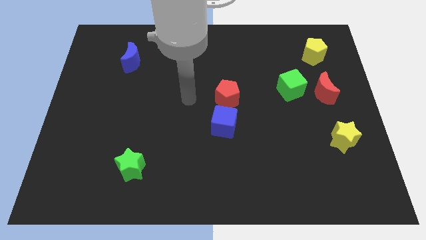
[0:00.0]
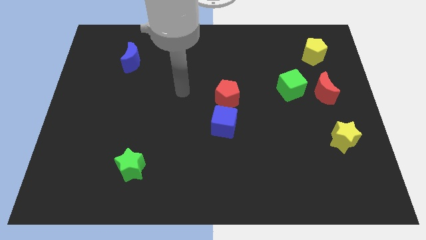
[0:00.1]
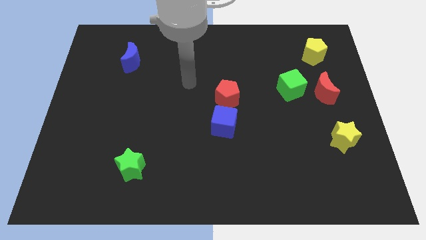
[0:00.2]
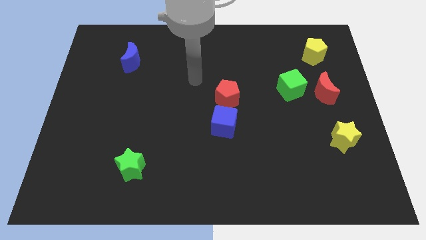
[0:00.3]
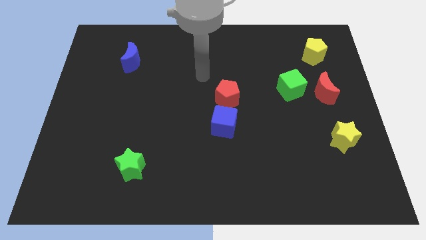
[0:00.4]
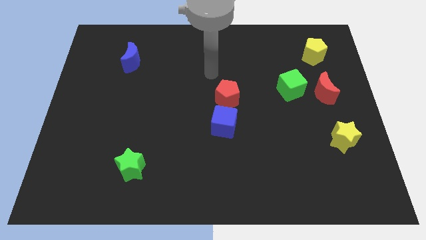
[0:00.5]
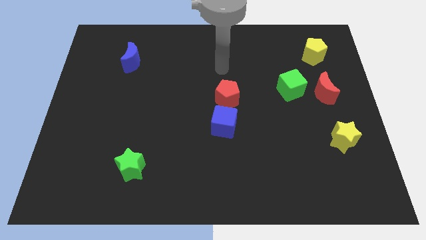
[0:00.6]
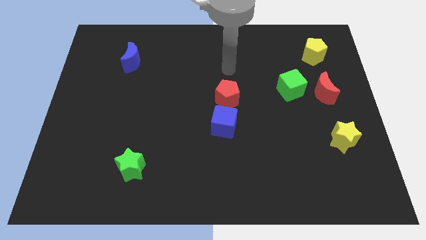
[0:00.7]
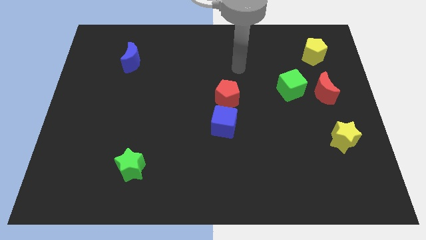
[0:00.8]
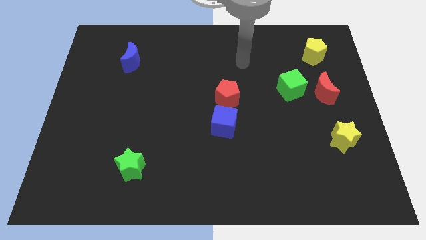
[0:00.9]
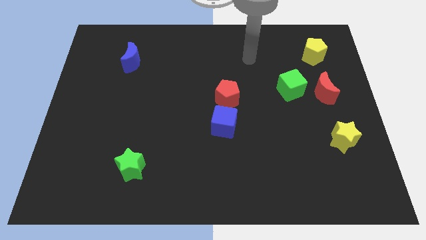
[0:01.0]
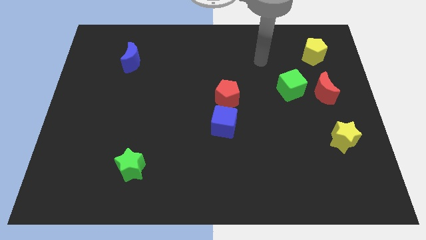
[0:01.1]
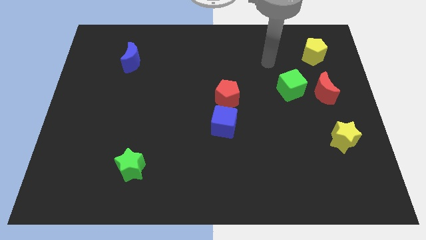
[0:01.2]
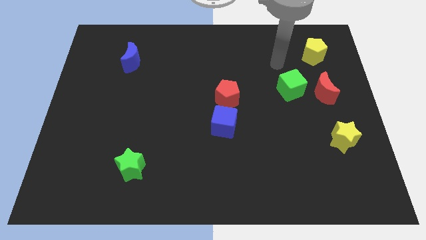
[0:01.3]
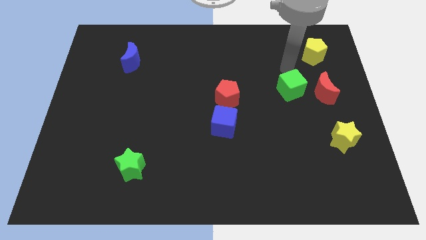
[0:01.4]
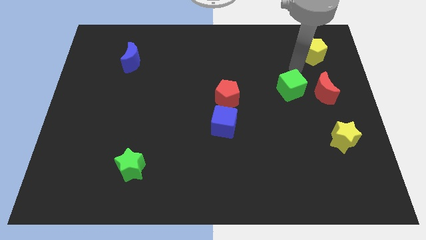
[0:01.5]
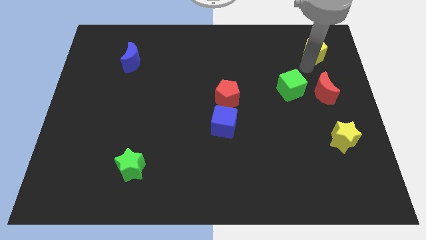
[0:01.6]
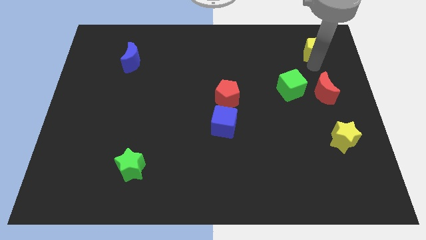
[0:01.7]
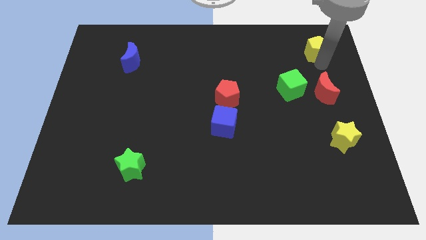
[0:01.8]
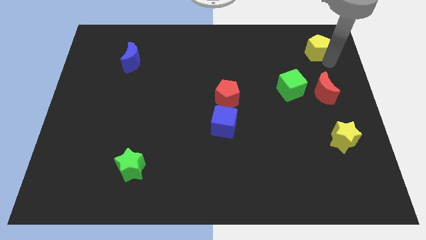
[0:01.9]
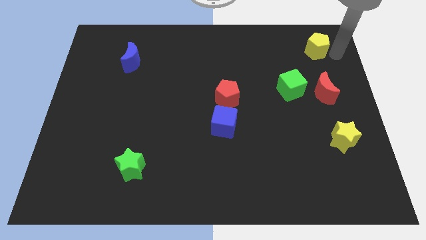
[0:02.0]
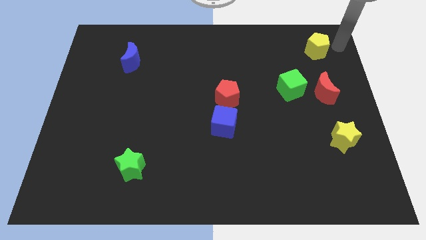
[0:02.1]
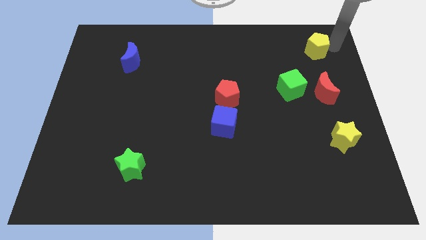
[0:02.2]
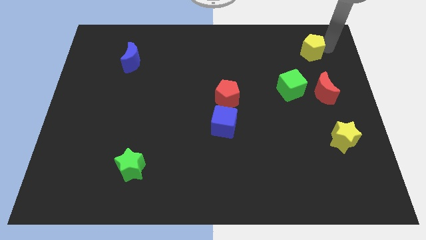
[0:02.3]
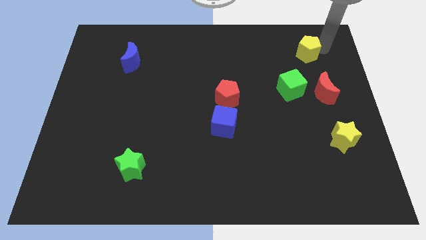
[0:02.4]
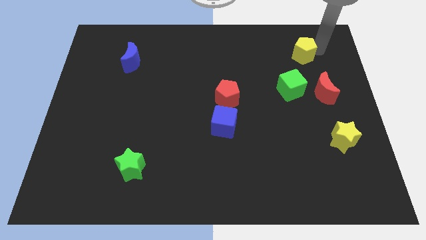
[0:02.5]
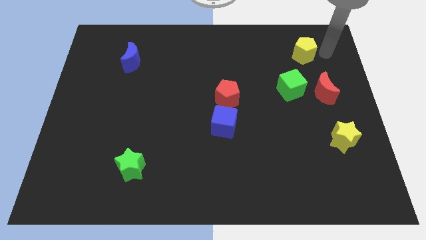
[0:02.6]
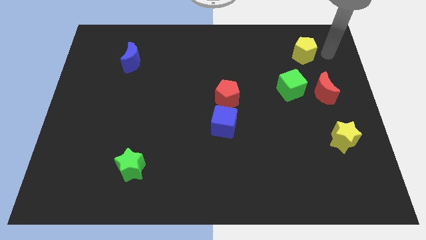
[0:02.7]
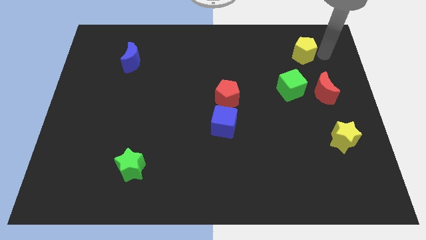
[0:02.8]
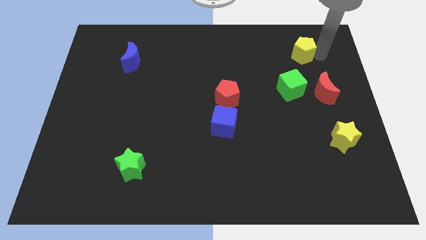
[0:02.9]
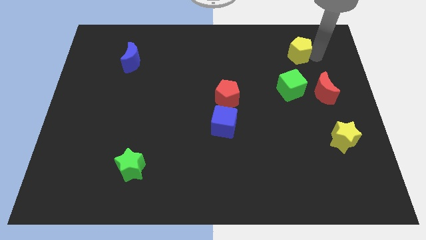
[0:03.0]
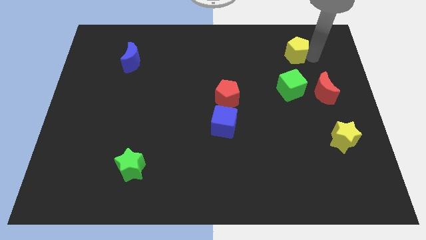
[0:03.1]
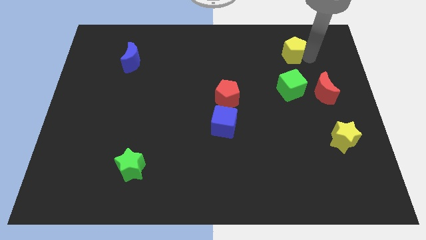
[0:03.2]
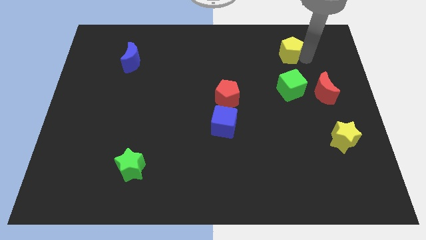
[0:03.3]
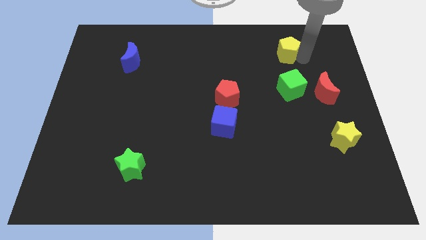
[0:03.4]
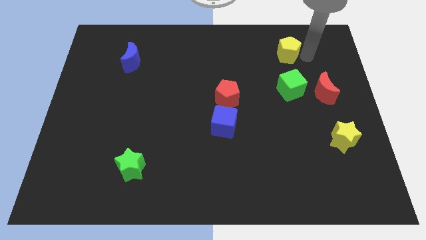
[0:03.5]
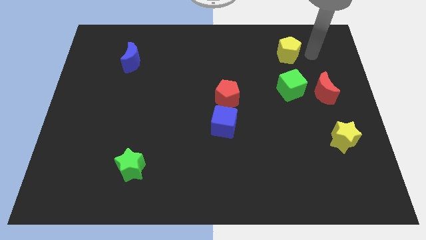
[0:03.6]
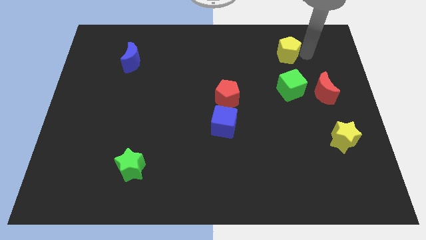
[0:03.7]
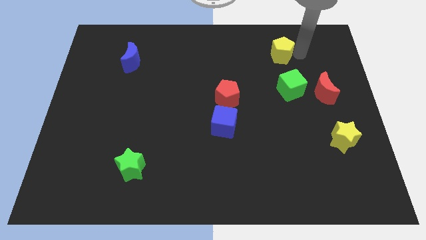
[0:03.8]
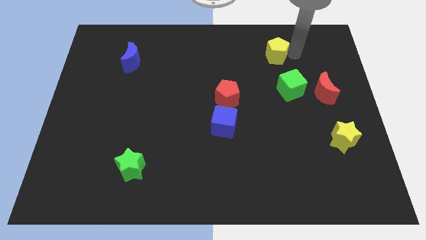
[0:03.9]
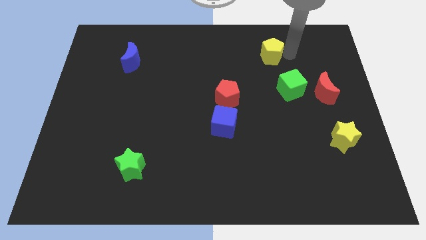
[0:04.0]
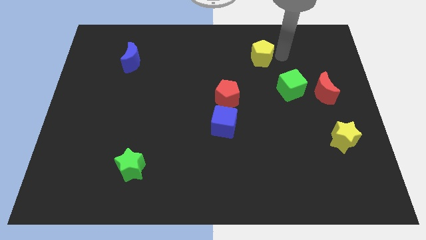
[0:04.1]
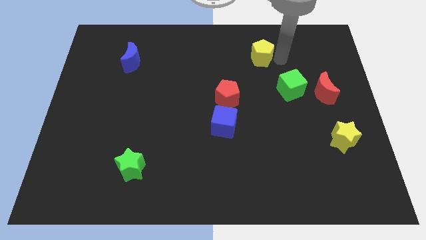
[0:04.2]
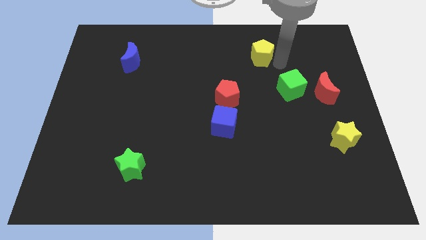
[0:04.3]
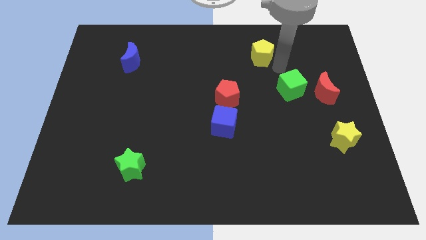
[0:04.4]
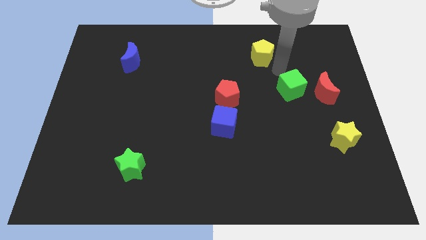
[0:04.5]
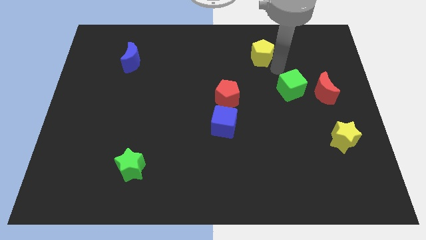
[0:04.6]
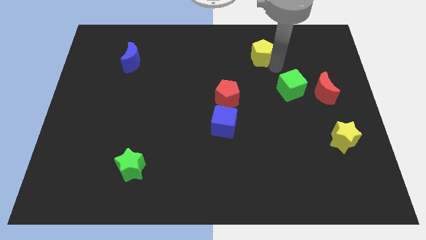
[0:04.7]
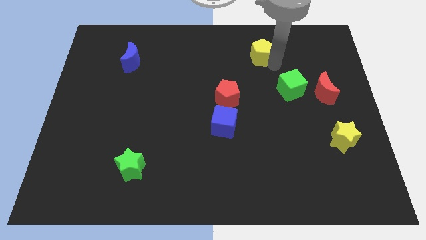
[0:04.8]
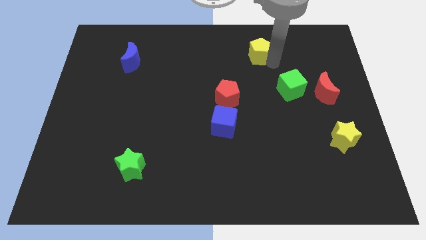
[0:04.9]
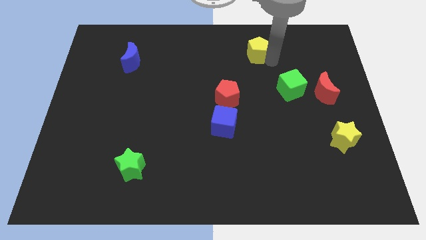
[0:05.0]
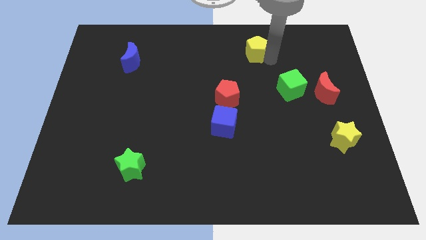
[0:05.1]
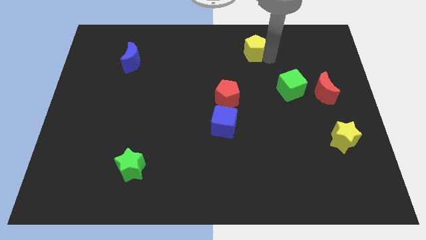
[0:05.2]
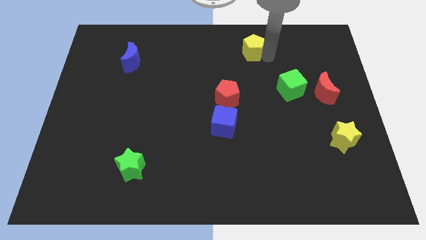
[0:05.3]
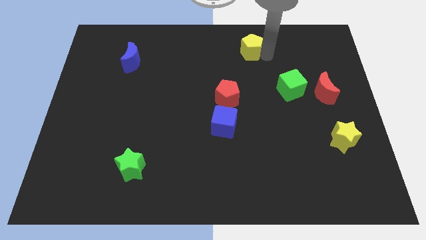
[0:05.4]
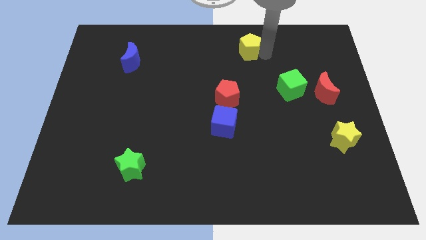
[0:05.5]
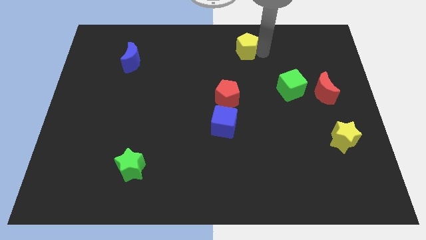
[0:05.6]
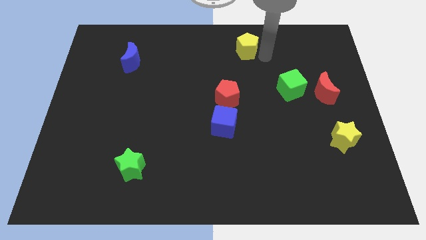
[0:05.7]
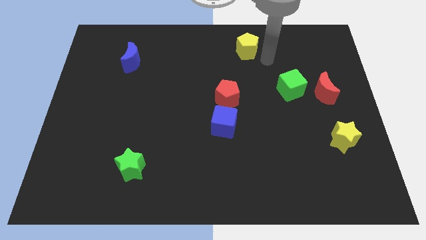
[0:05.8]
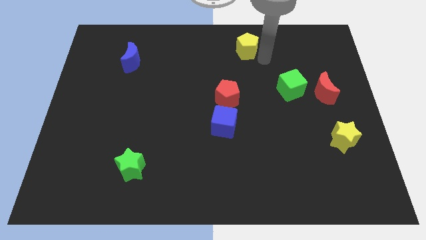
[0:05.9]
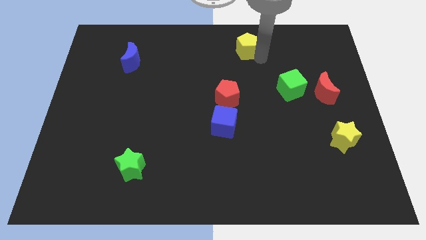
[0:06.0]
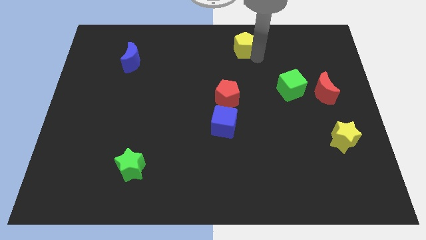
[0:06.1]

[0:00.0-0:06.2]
put the yellow pentagon to the towards your base
